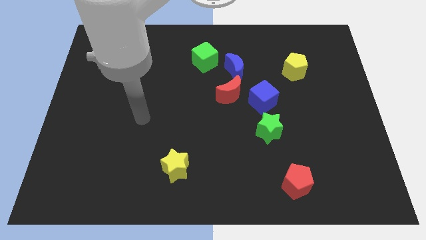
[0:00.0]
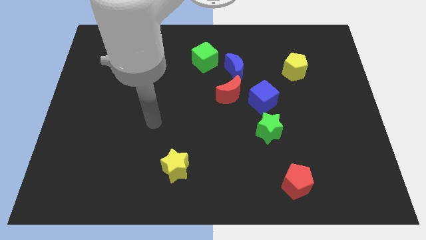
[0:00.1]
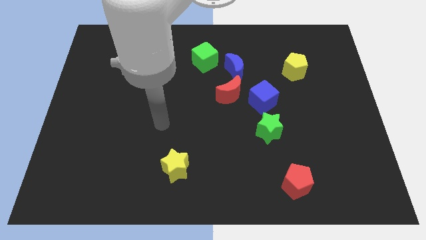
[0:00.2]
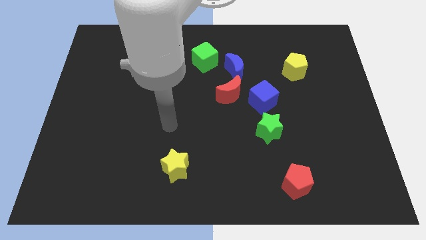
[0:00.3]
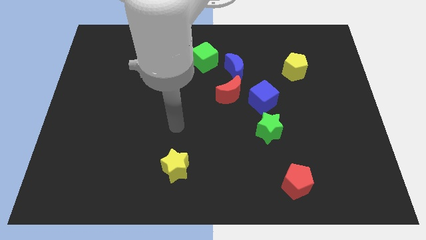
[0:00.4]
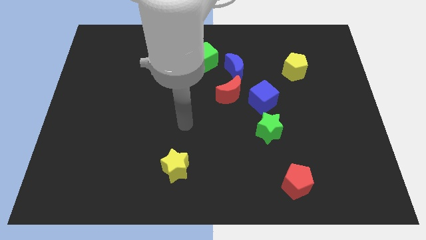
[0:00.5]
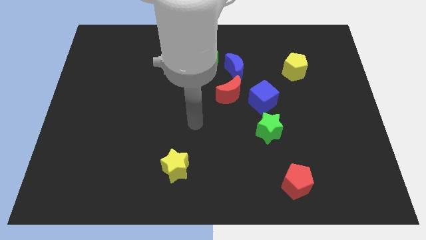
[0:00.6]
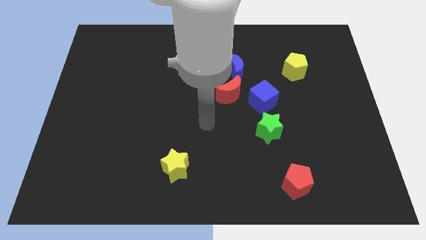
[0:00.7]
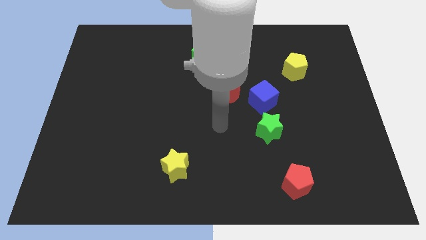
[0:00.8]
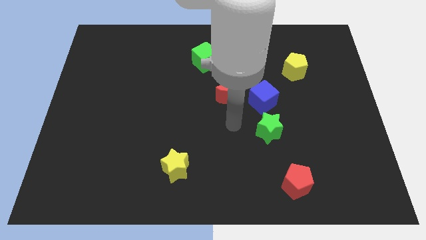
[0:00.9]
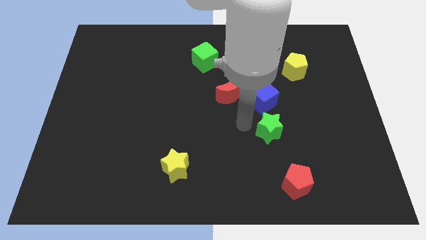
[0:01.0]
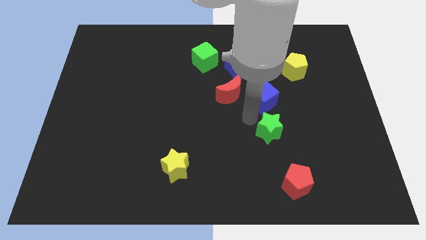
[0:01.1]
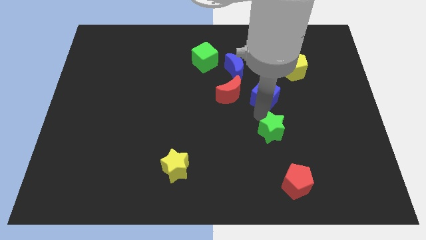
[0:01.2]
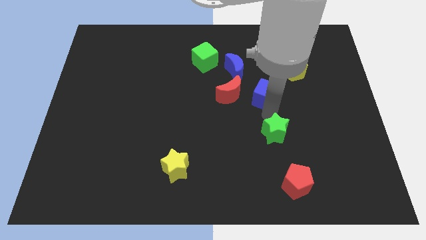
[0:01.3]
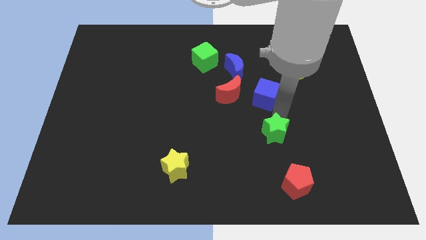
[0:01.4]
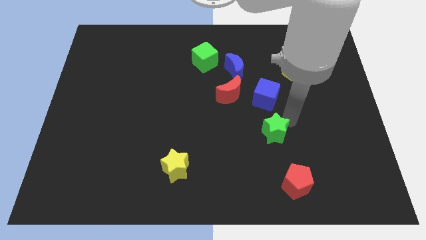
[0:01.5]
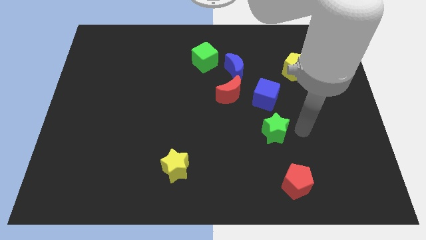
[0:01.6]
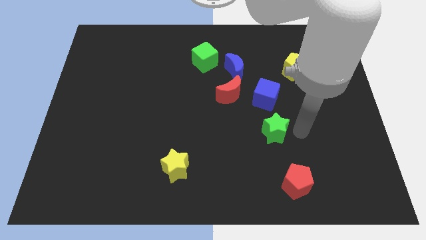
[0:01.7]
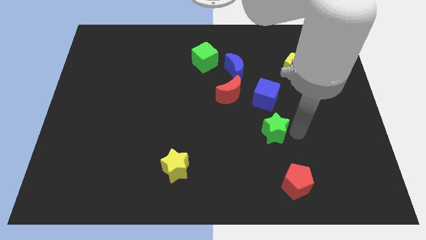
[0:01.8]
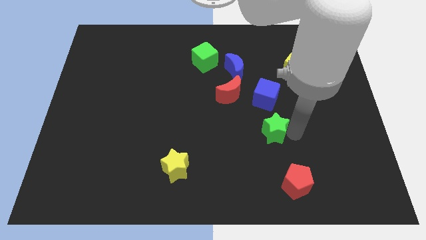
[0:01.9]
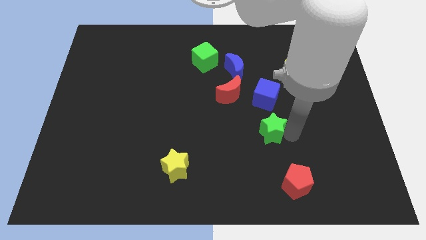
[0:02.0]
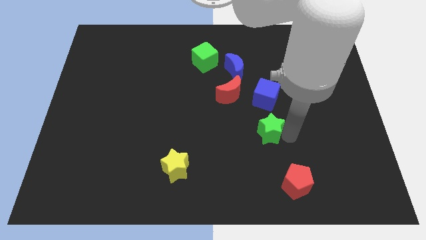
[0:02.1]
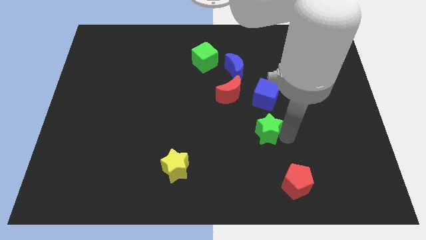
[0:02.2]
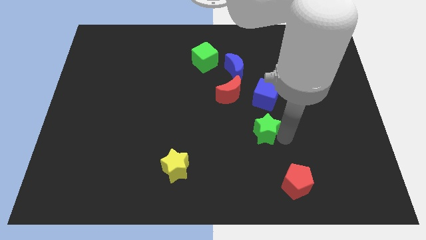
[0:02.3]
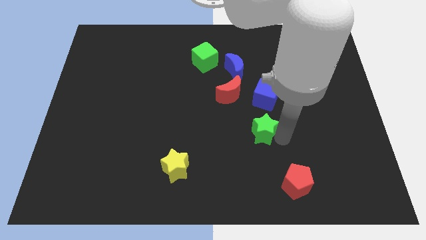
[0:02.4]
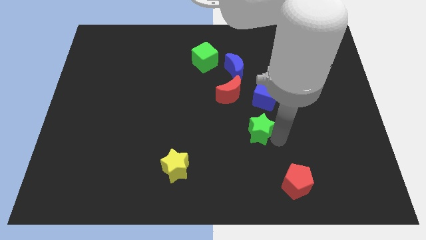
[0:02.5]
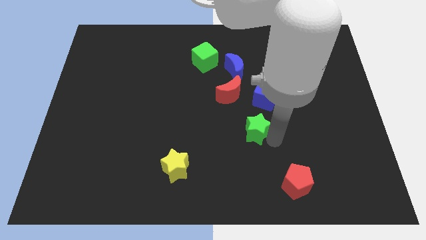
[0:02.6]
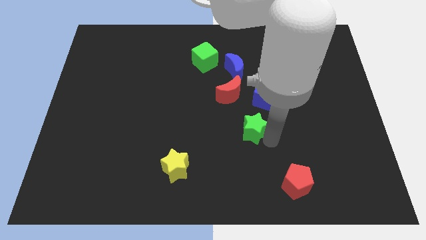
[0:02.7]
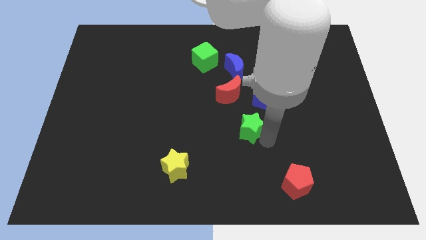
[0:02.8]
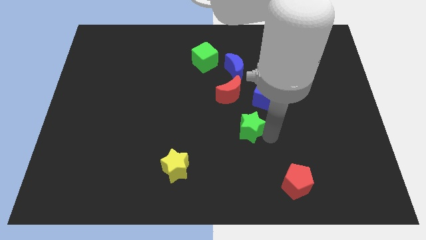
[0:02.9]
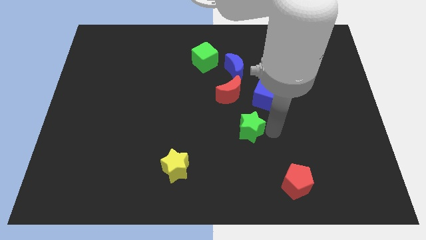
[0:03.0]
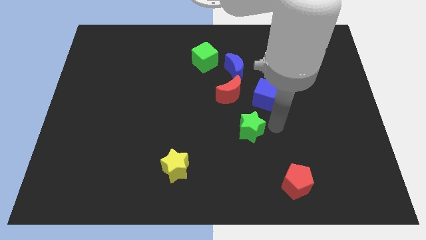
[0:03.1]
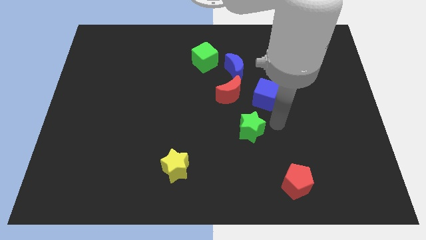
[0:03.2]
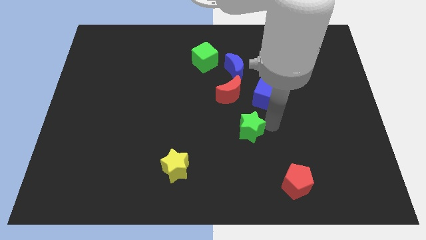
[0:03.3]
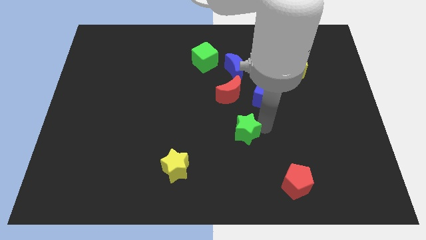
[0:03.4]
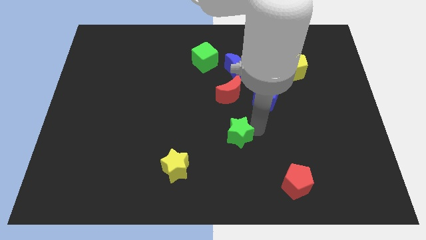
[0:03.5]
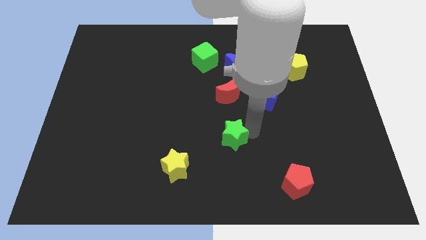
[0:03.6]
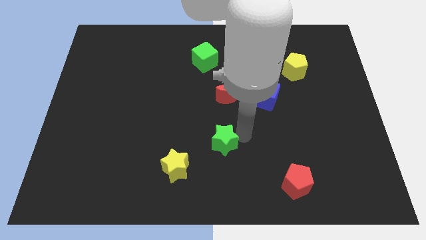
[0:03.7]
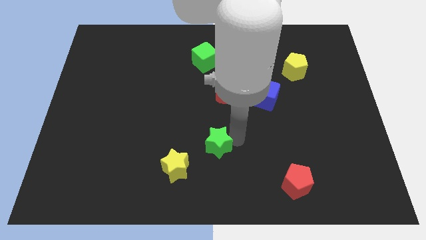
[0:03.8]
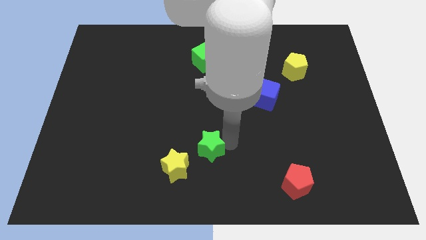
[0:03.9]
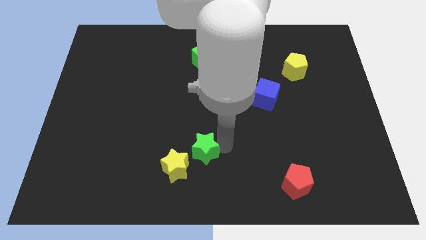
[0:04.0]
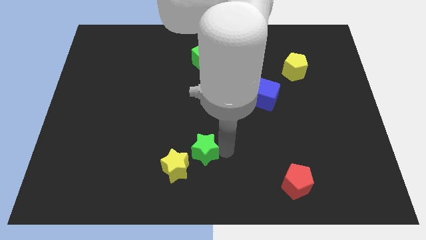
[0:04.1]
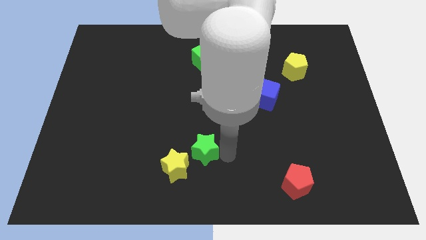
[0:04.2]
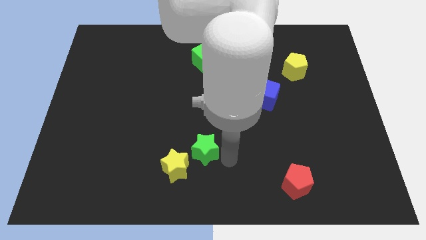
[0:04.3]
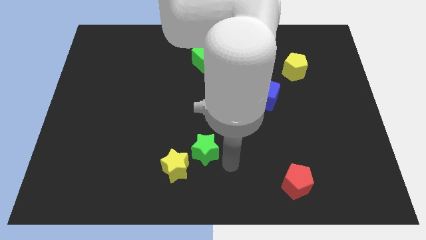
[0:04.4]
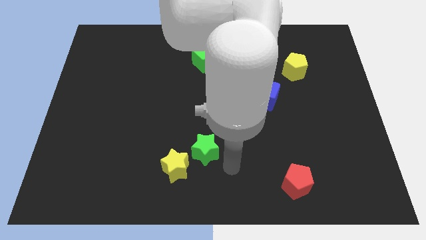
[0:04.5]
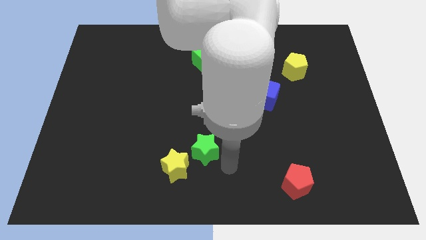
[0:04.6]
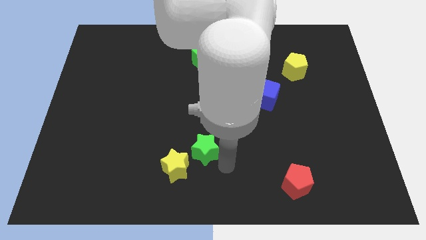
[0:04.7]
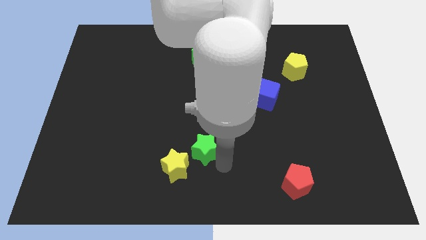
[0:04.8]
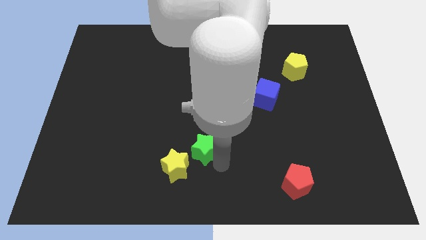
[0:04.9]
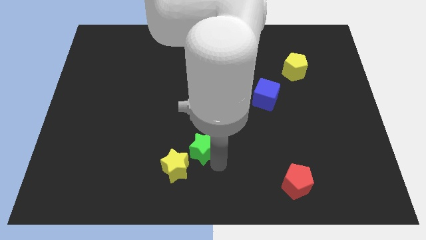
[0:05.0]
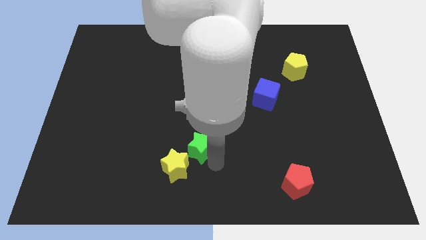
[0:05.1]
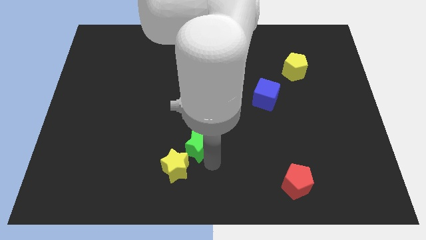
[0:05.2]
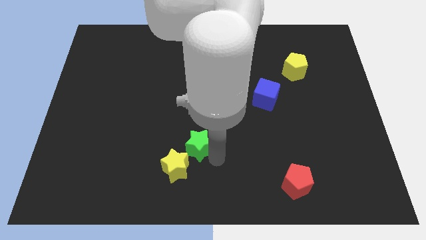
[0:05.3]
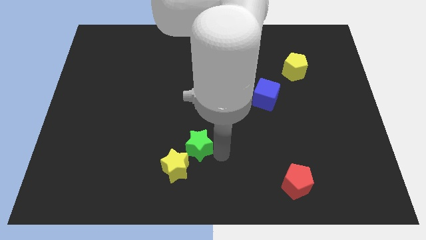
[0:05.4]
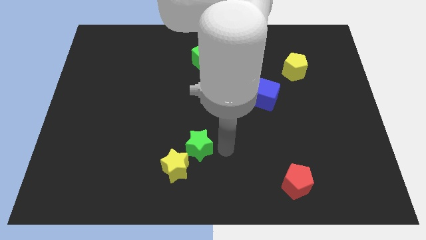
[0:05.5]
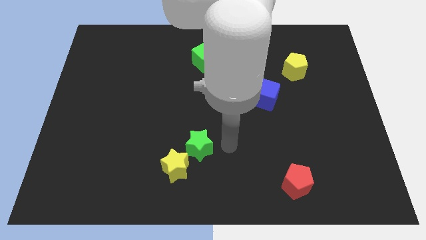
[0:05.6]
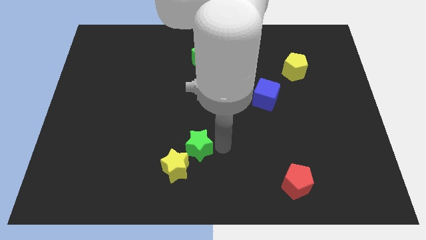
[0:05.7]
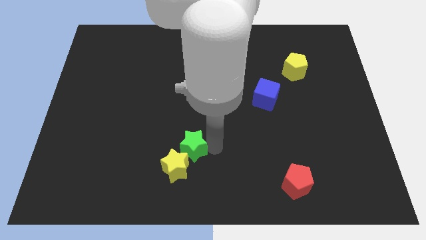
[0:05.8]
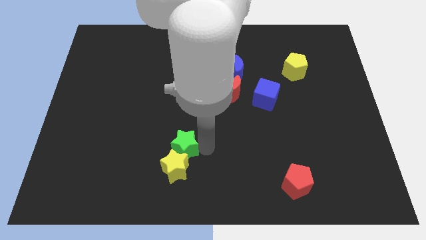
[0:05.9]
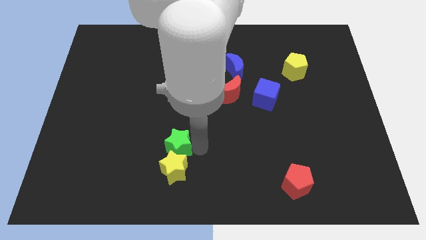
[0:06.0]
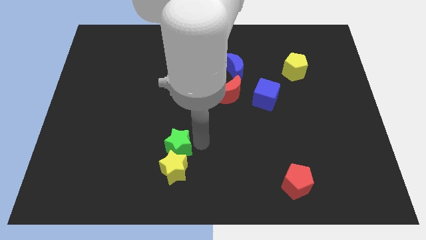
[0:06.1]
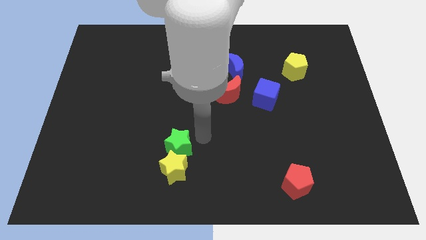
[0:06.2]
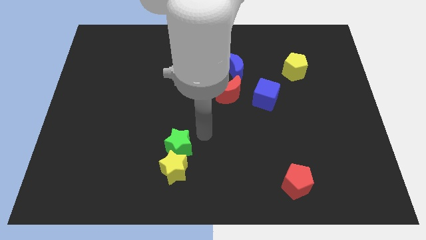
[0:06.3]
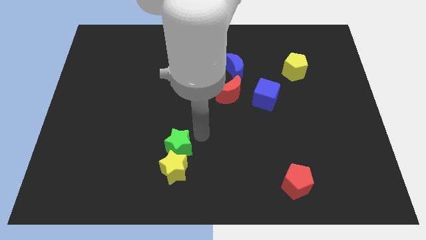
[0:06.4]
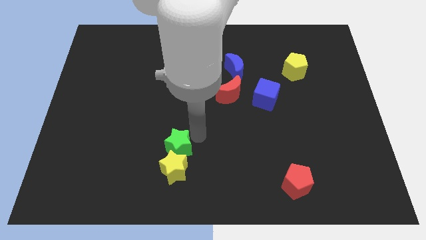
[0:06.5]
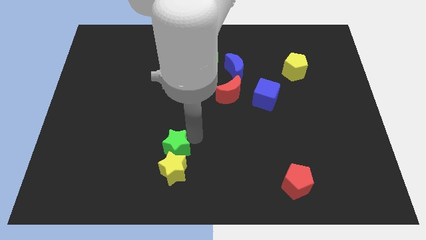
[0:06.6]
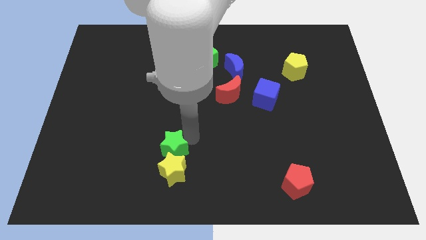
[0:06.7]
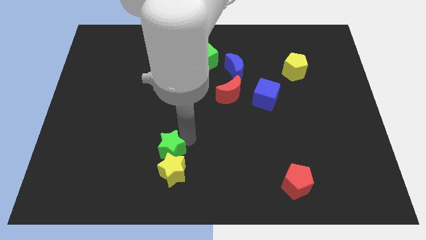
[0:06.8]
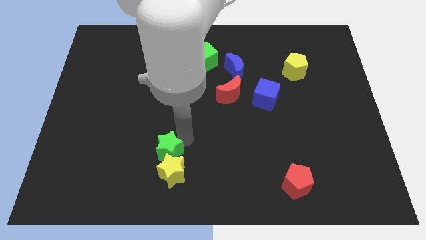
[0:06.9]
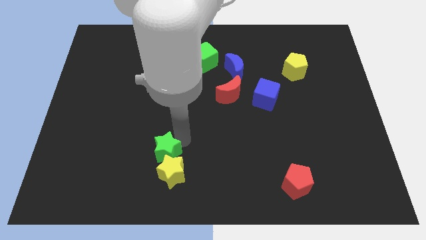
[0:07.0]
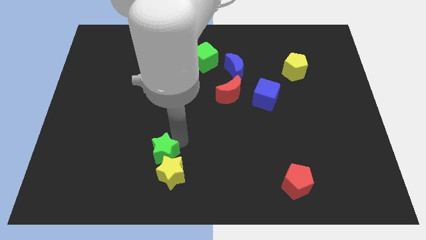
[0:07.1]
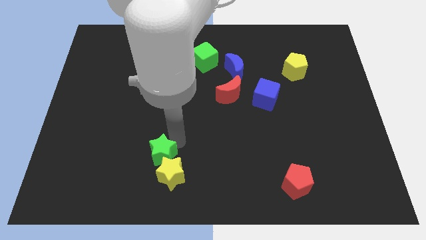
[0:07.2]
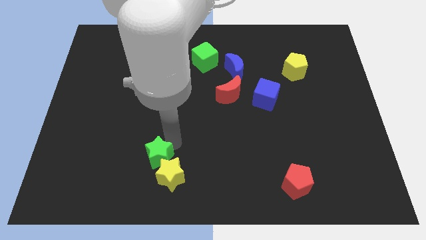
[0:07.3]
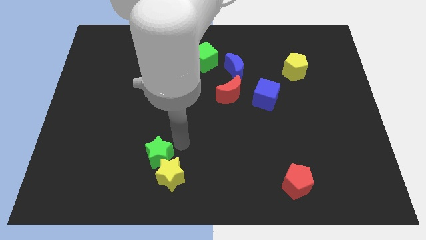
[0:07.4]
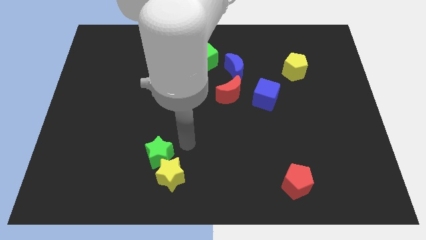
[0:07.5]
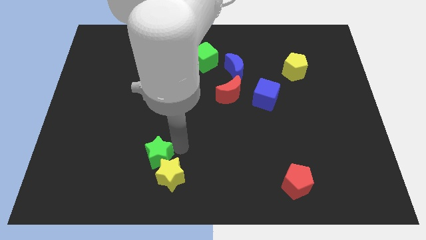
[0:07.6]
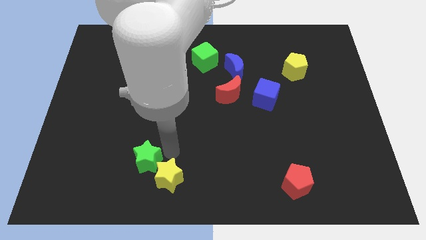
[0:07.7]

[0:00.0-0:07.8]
push the green star to the left side of the yellow star
